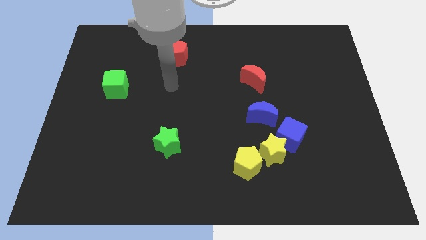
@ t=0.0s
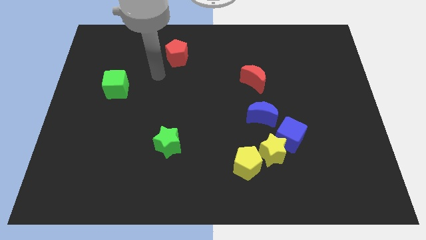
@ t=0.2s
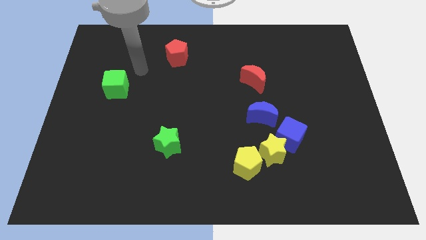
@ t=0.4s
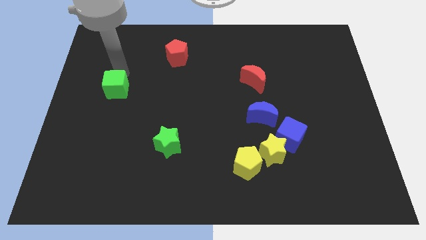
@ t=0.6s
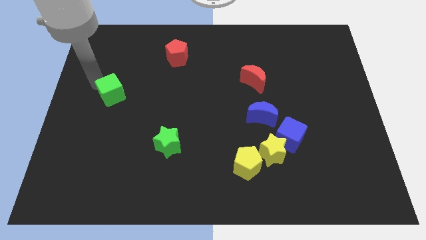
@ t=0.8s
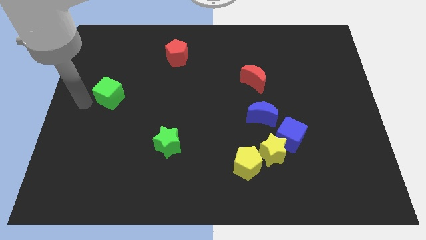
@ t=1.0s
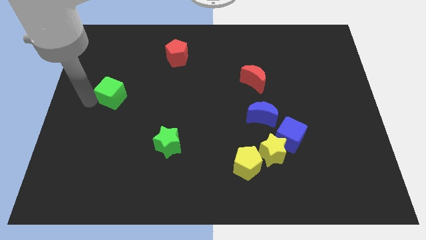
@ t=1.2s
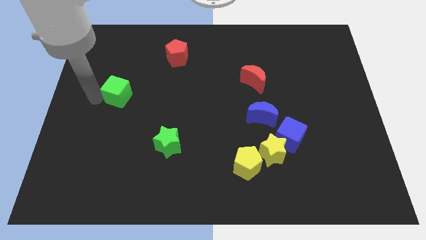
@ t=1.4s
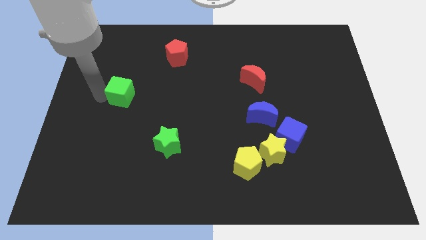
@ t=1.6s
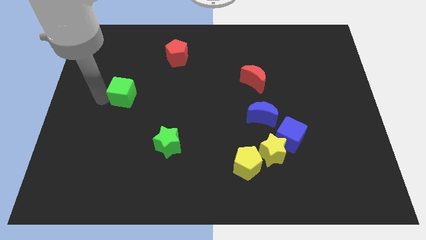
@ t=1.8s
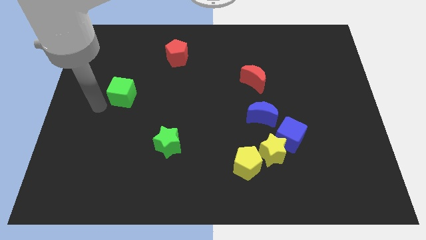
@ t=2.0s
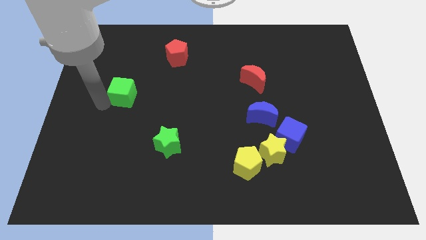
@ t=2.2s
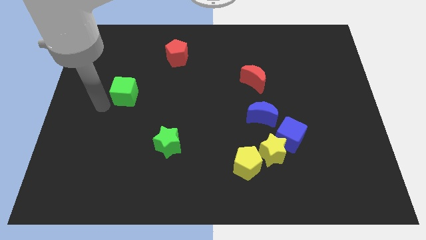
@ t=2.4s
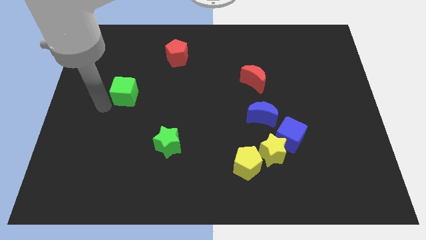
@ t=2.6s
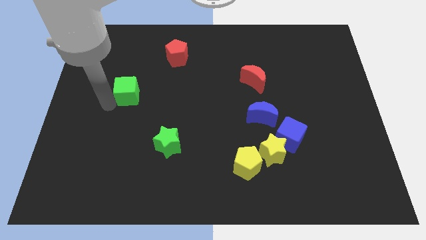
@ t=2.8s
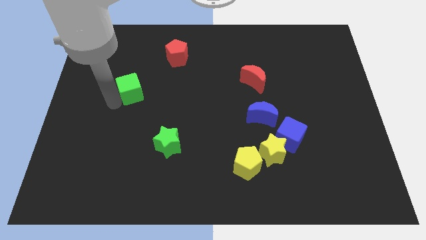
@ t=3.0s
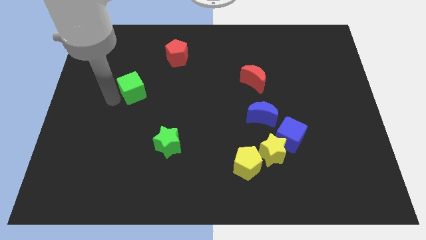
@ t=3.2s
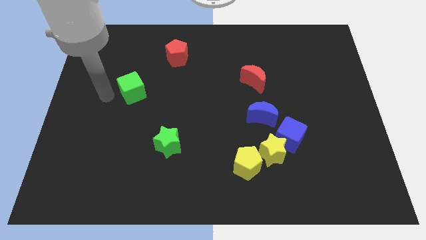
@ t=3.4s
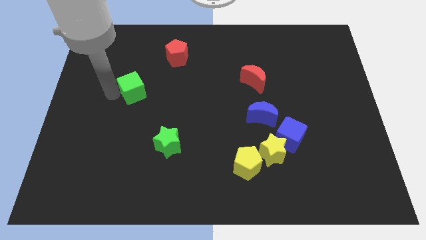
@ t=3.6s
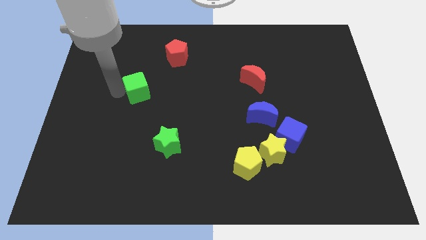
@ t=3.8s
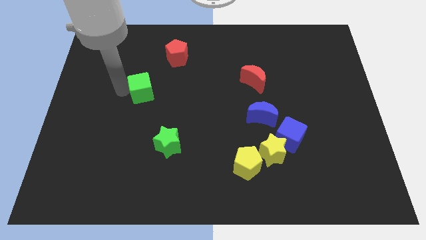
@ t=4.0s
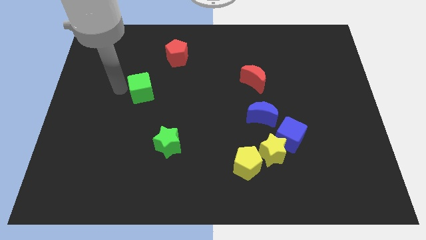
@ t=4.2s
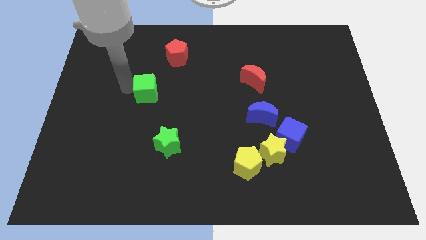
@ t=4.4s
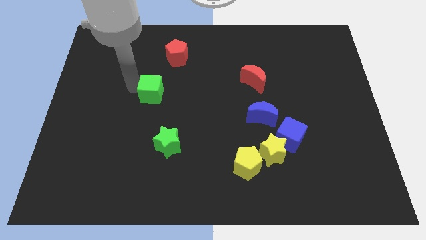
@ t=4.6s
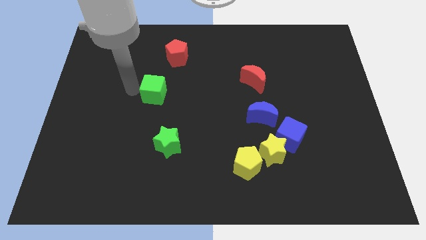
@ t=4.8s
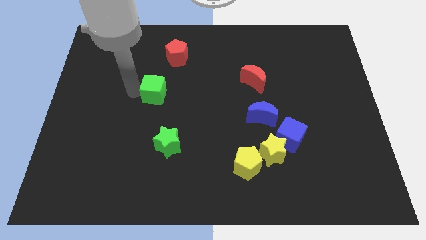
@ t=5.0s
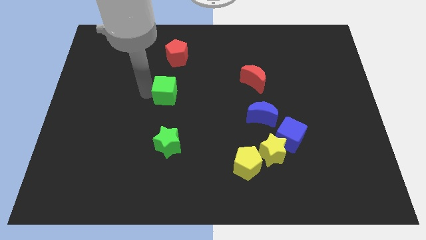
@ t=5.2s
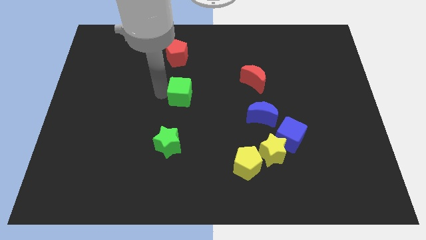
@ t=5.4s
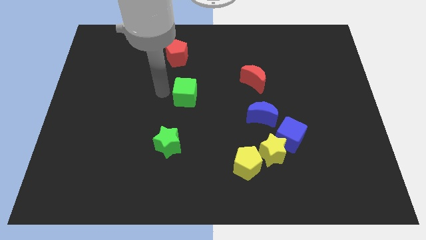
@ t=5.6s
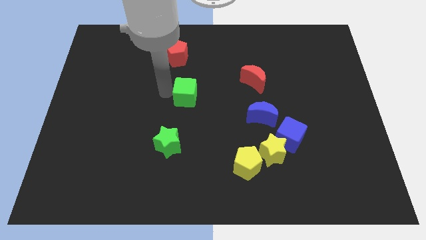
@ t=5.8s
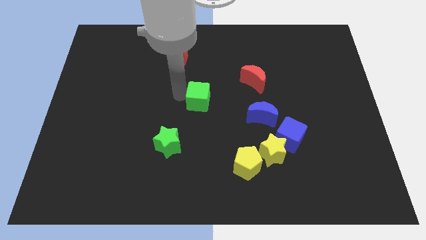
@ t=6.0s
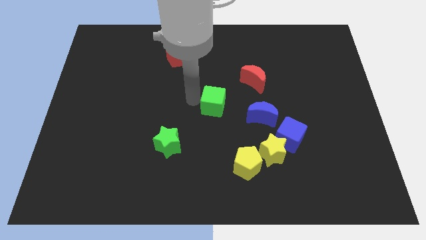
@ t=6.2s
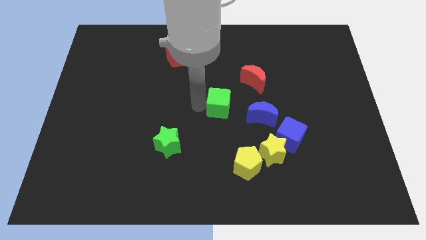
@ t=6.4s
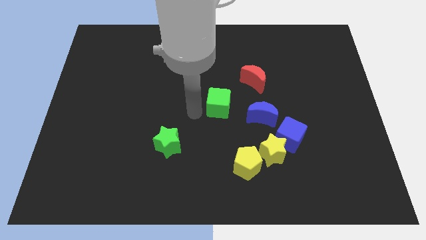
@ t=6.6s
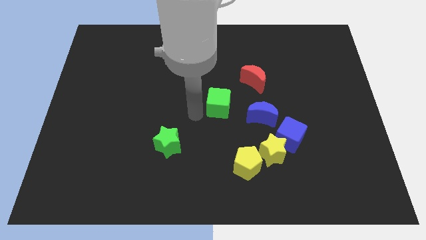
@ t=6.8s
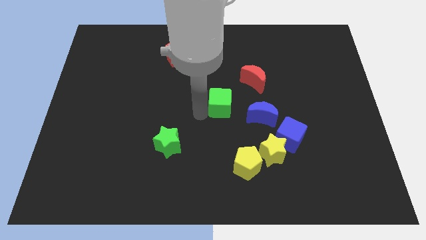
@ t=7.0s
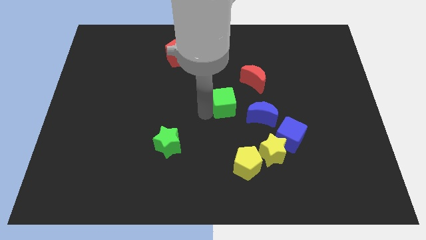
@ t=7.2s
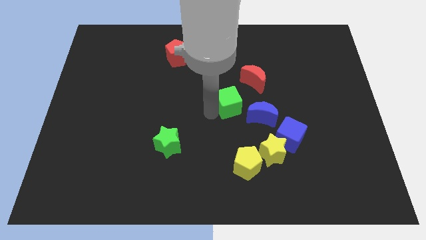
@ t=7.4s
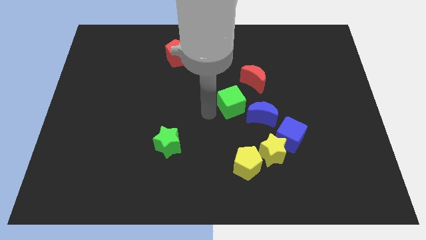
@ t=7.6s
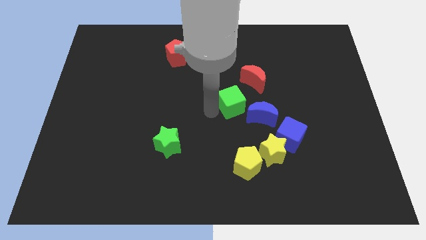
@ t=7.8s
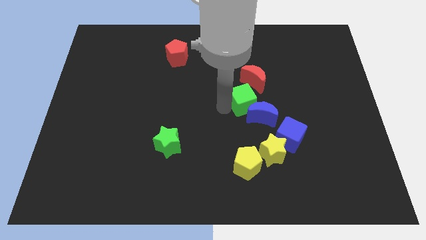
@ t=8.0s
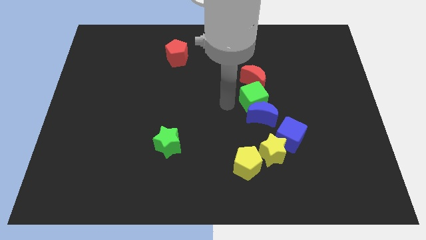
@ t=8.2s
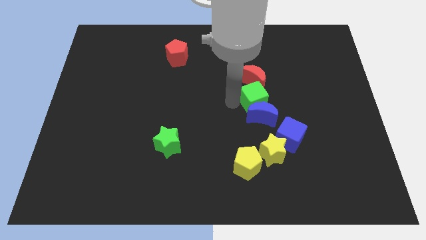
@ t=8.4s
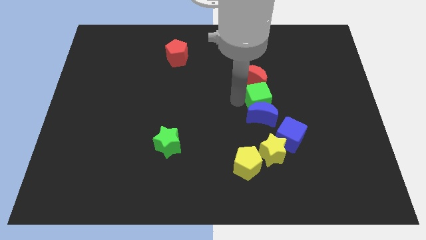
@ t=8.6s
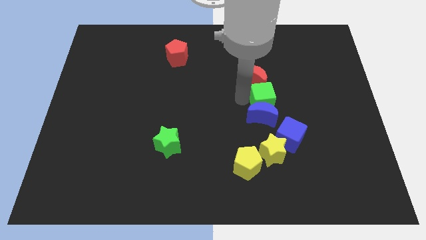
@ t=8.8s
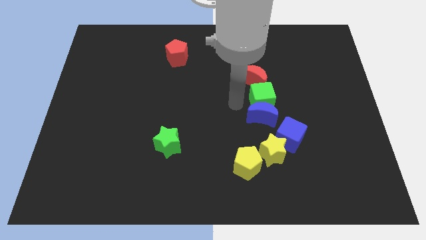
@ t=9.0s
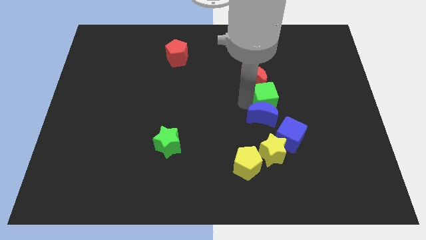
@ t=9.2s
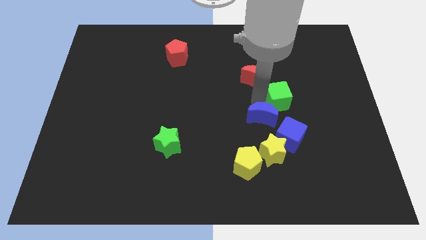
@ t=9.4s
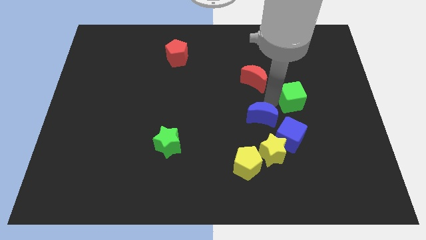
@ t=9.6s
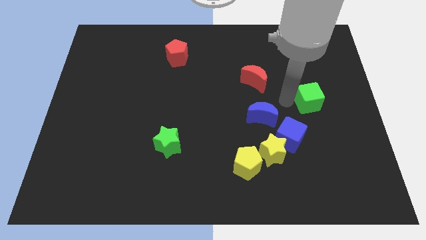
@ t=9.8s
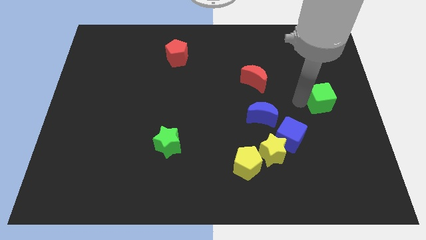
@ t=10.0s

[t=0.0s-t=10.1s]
slide the green cube to the right side

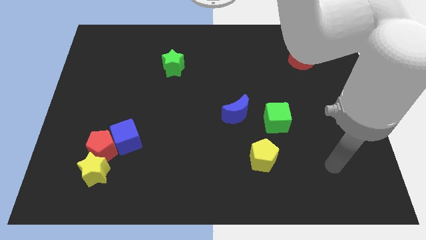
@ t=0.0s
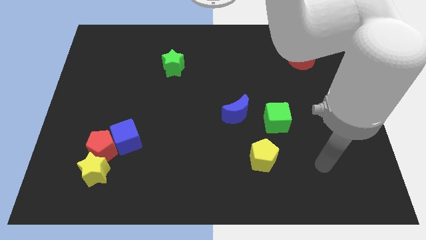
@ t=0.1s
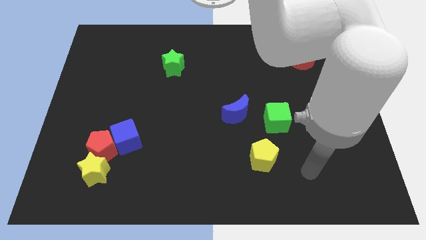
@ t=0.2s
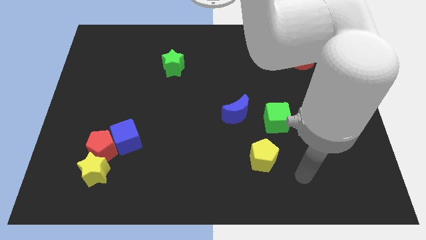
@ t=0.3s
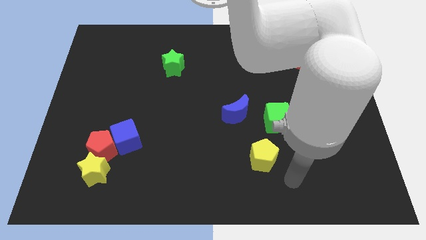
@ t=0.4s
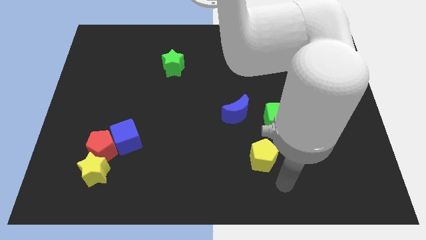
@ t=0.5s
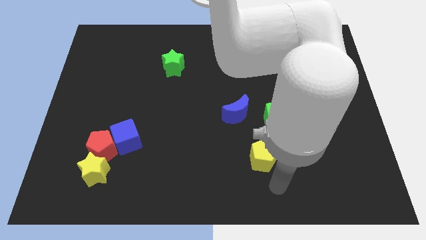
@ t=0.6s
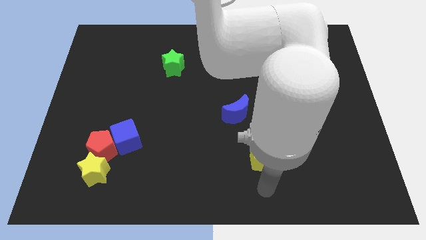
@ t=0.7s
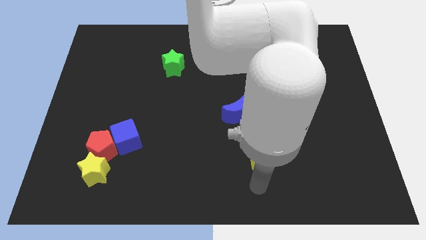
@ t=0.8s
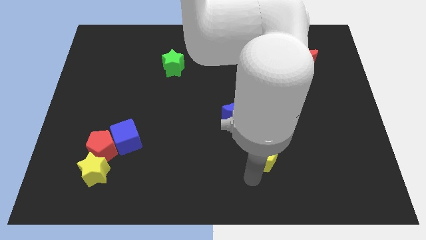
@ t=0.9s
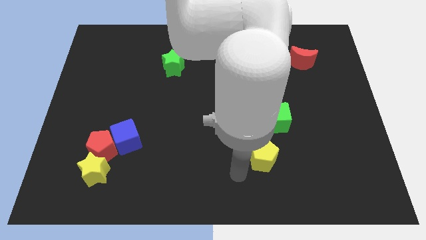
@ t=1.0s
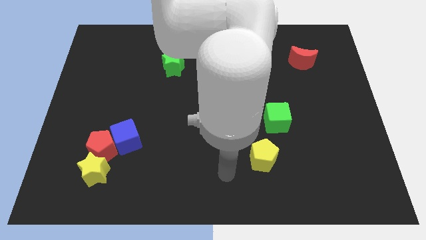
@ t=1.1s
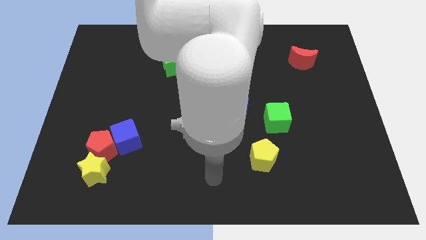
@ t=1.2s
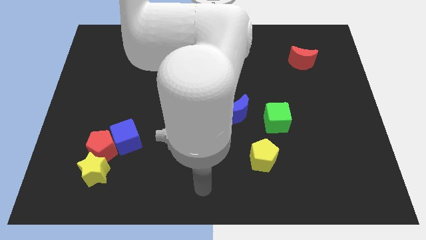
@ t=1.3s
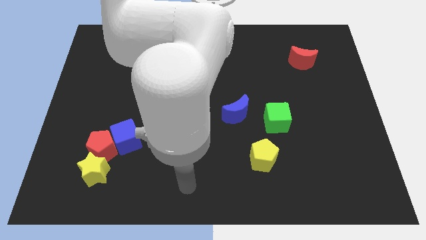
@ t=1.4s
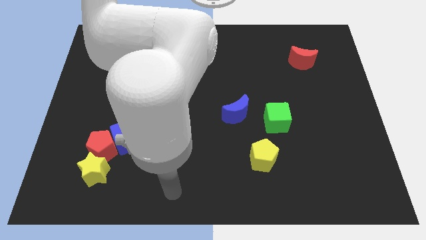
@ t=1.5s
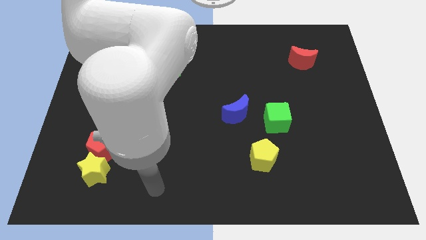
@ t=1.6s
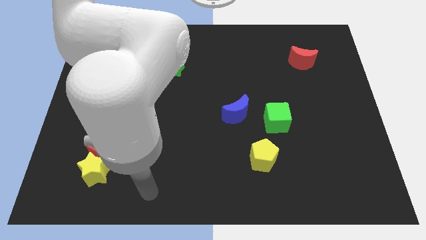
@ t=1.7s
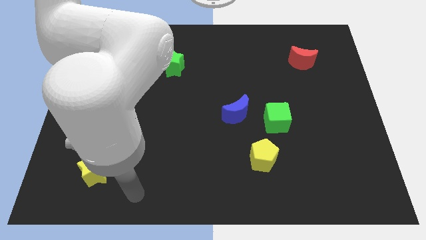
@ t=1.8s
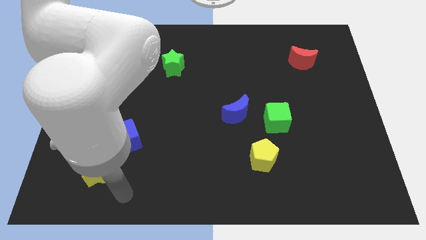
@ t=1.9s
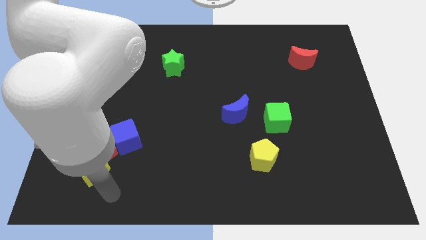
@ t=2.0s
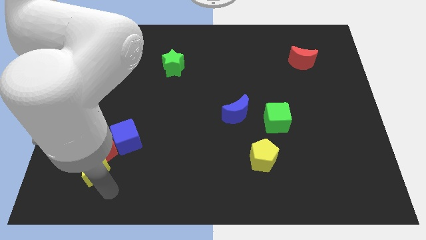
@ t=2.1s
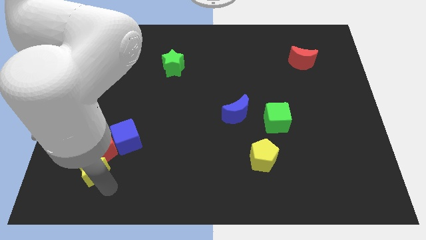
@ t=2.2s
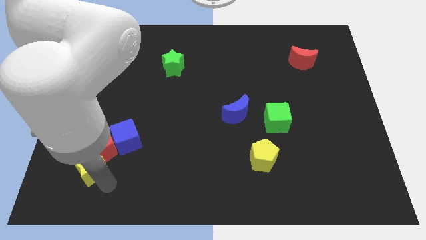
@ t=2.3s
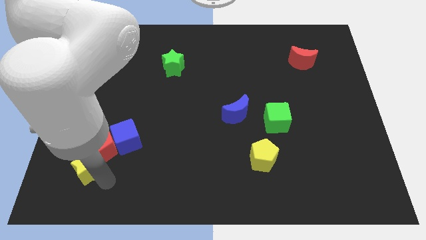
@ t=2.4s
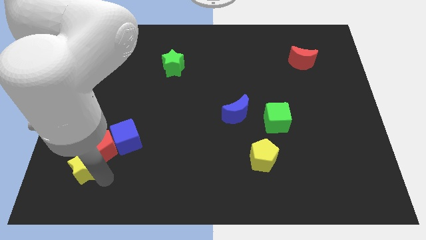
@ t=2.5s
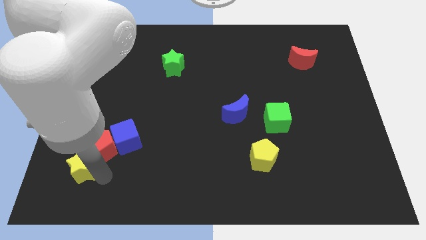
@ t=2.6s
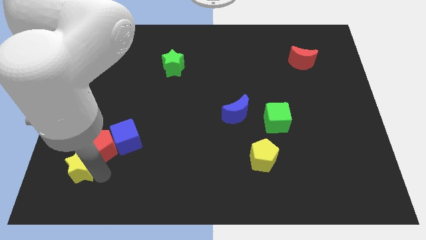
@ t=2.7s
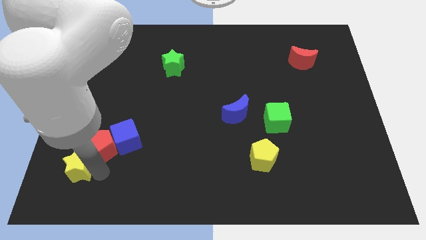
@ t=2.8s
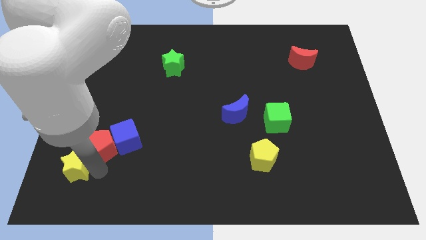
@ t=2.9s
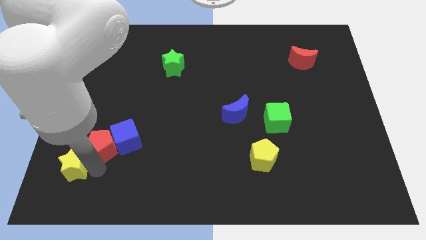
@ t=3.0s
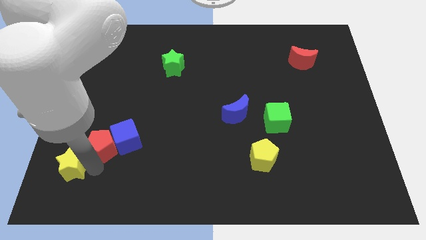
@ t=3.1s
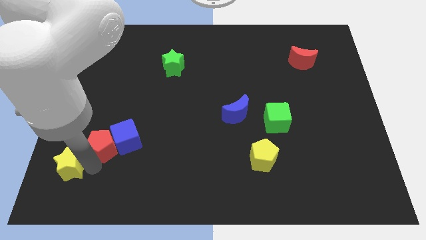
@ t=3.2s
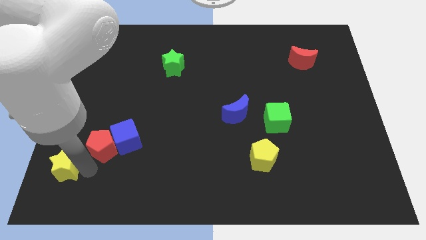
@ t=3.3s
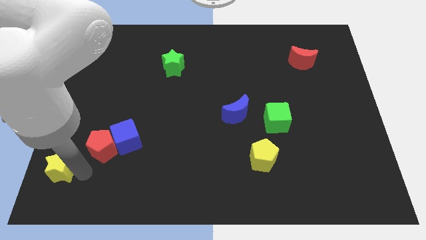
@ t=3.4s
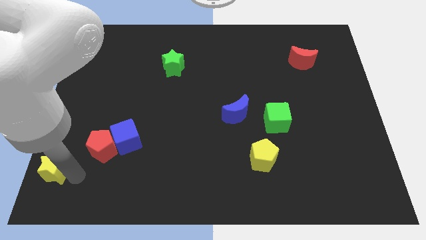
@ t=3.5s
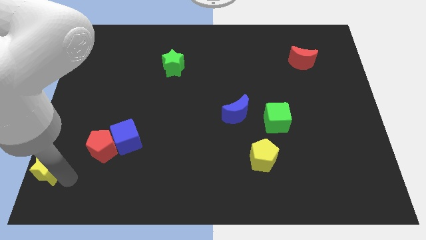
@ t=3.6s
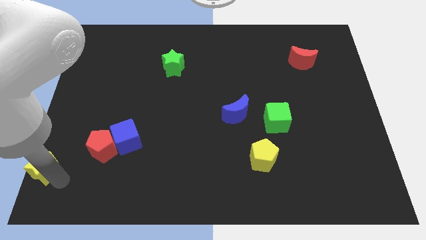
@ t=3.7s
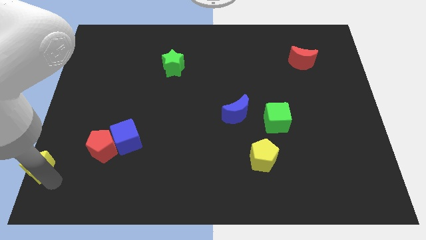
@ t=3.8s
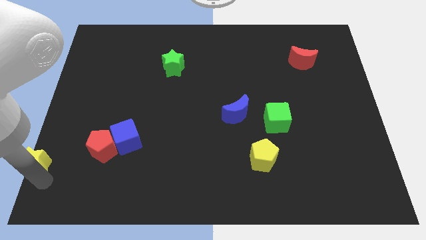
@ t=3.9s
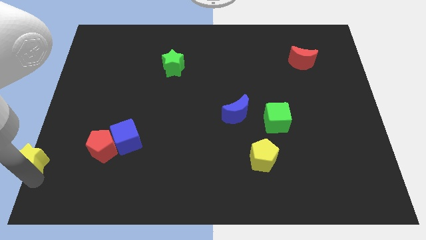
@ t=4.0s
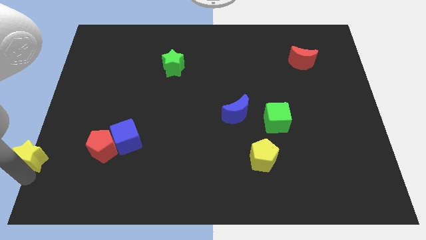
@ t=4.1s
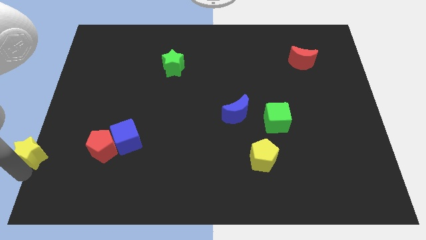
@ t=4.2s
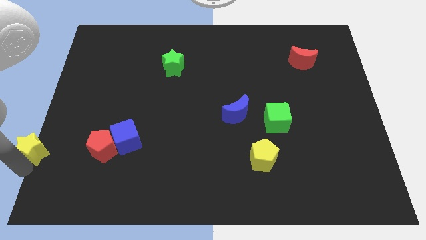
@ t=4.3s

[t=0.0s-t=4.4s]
slide the yellow star to the center left
